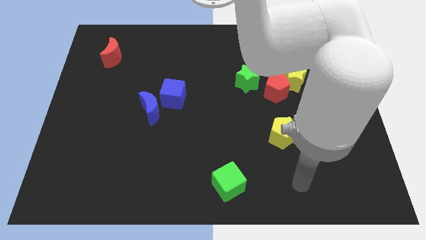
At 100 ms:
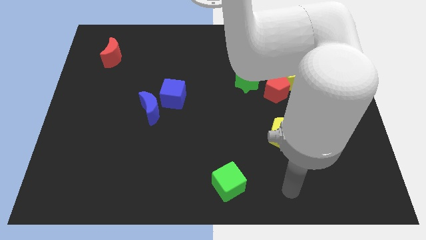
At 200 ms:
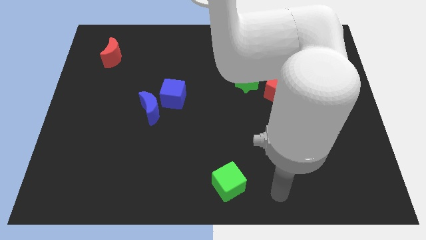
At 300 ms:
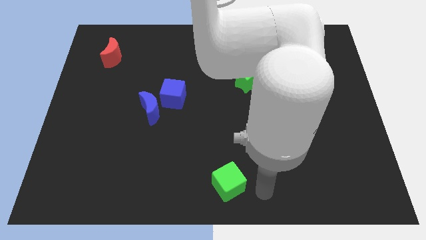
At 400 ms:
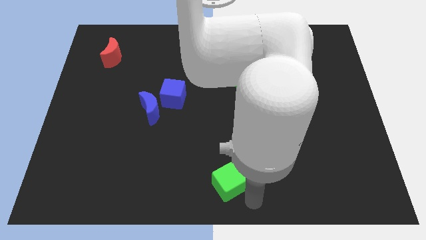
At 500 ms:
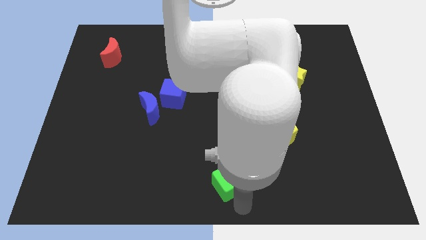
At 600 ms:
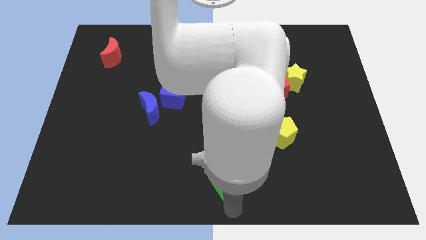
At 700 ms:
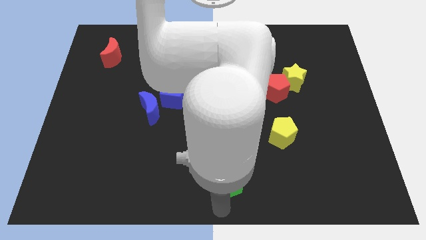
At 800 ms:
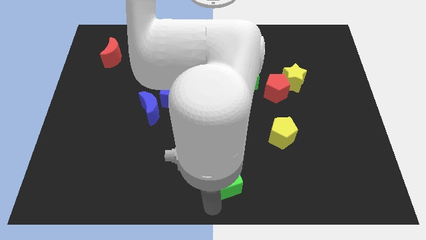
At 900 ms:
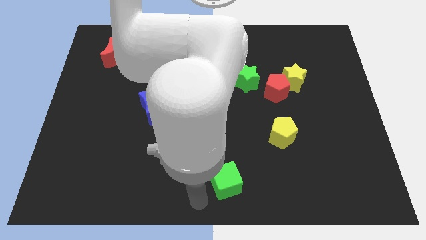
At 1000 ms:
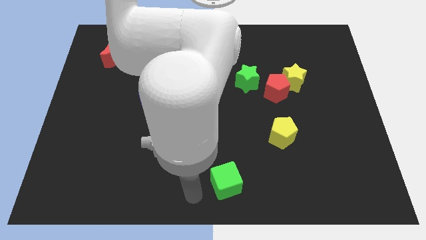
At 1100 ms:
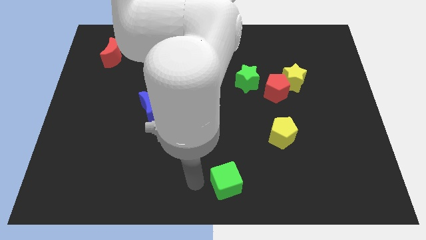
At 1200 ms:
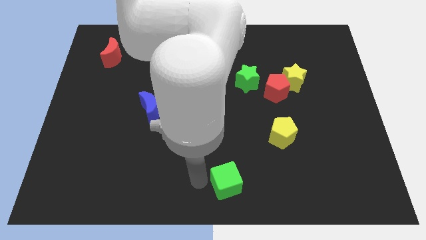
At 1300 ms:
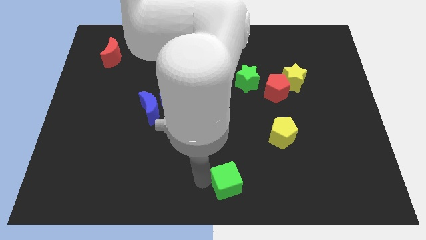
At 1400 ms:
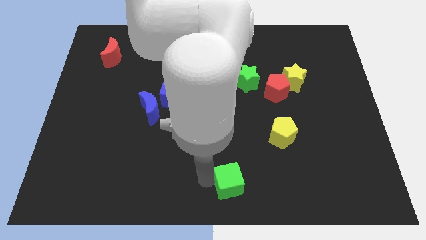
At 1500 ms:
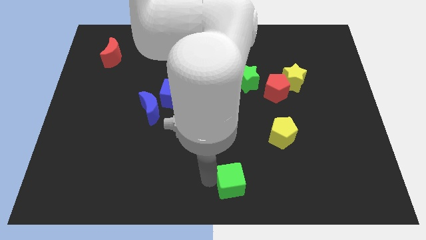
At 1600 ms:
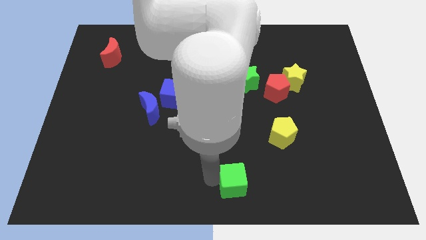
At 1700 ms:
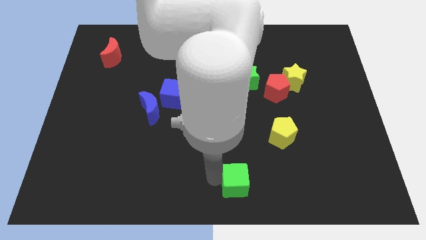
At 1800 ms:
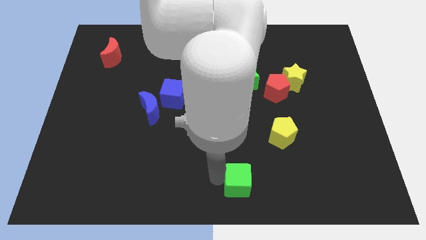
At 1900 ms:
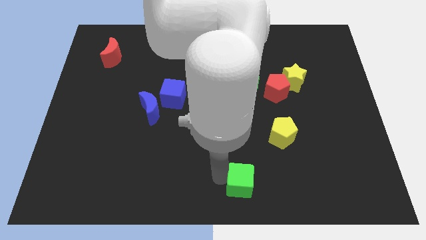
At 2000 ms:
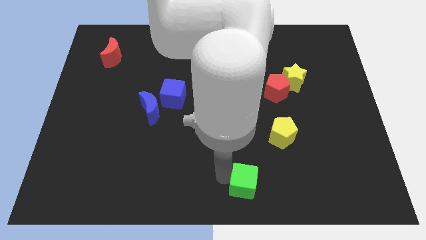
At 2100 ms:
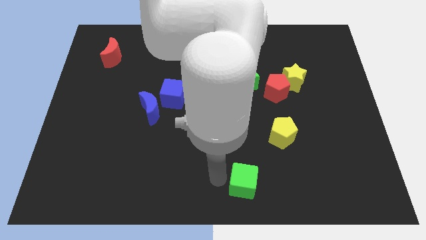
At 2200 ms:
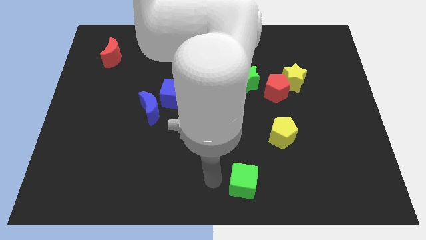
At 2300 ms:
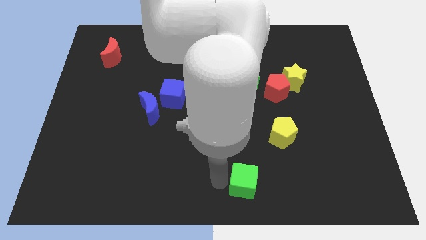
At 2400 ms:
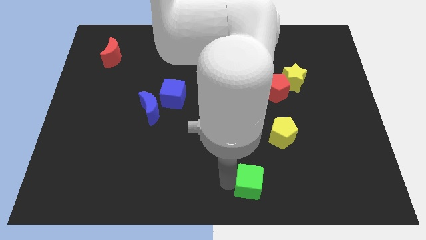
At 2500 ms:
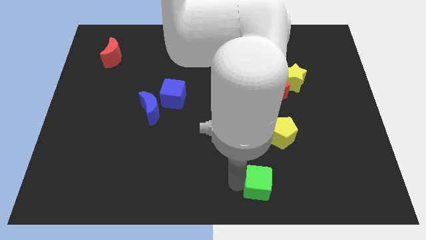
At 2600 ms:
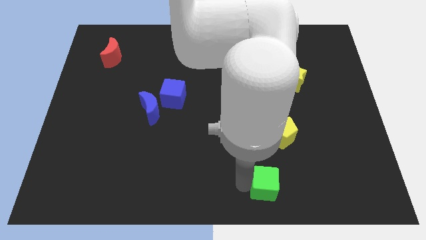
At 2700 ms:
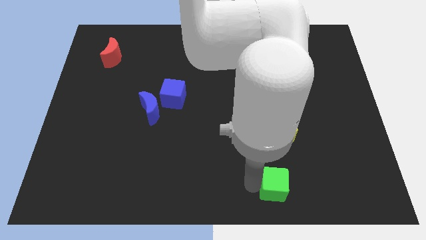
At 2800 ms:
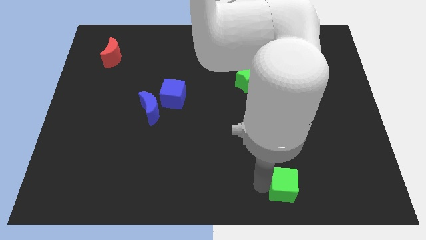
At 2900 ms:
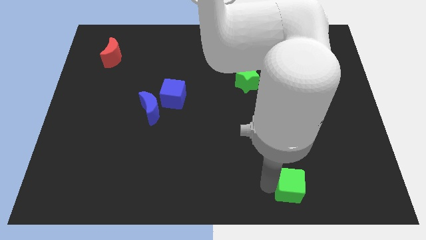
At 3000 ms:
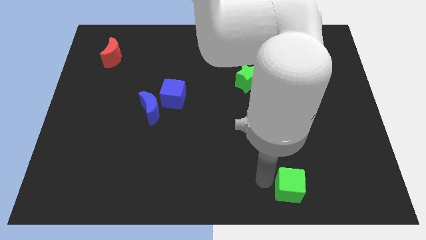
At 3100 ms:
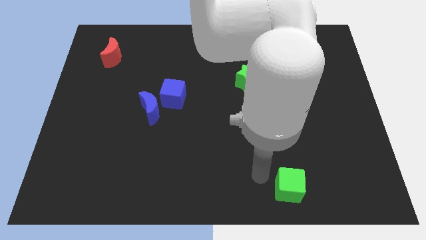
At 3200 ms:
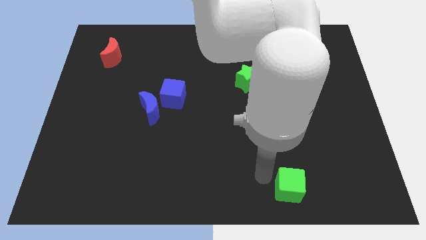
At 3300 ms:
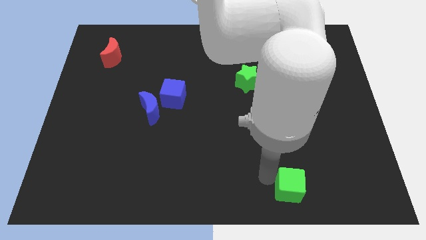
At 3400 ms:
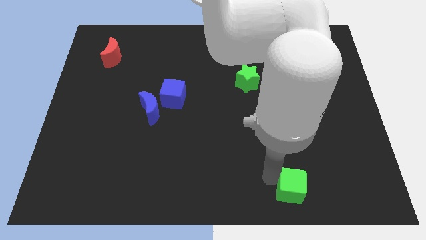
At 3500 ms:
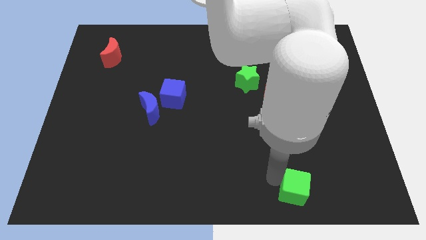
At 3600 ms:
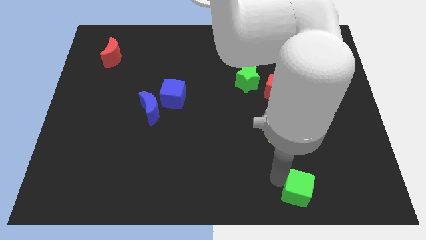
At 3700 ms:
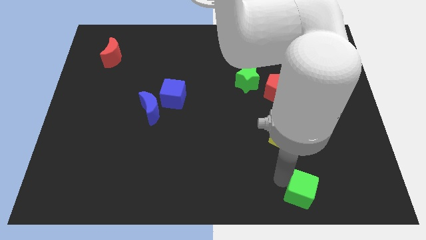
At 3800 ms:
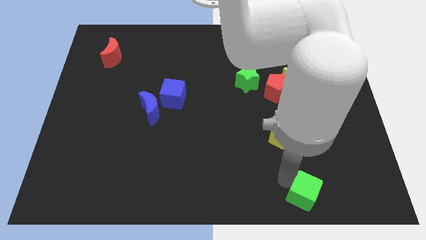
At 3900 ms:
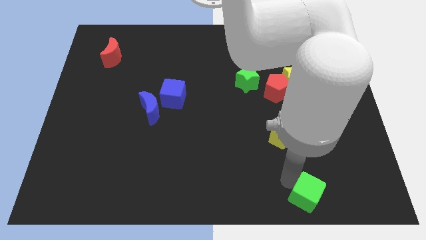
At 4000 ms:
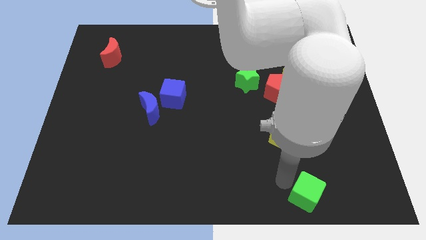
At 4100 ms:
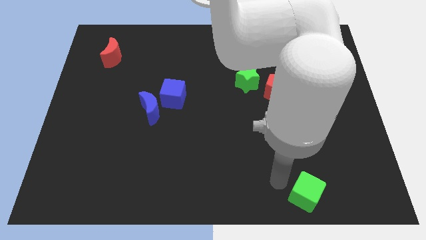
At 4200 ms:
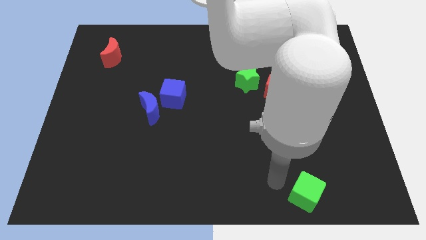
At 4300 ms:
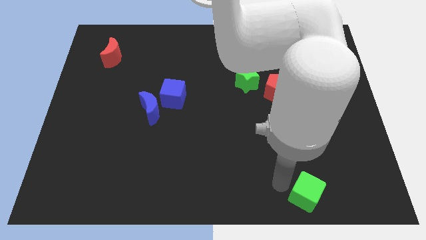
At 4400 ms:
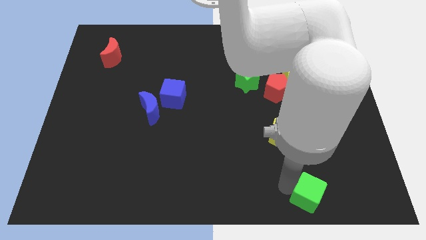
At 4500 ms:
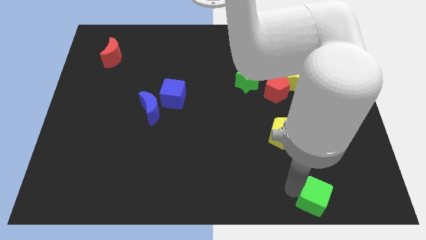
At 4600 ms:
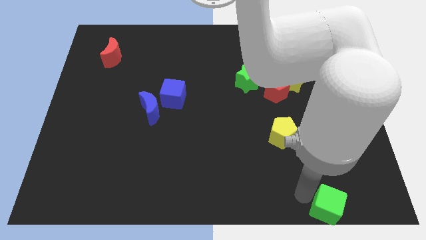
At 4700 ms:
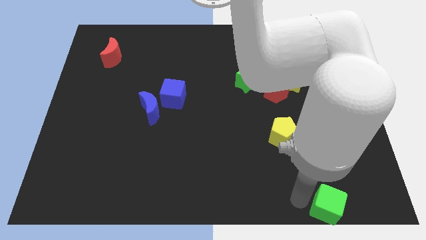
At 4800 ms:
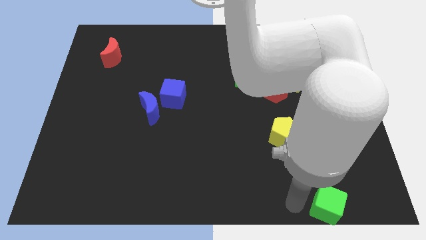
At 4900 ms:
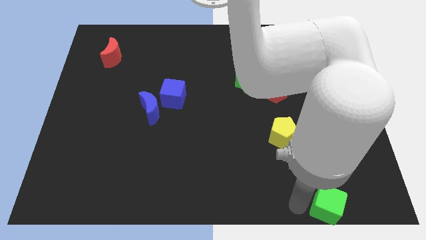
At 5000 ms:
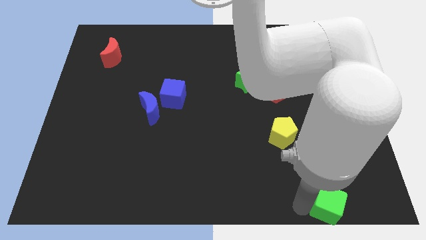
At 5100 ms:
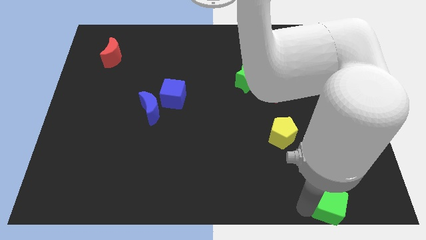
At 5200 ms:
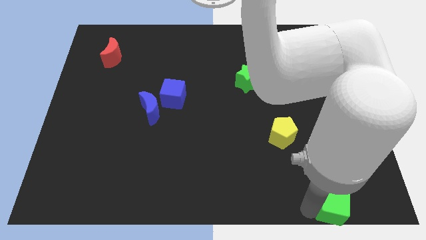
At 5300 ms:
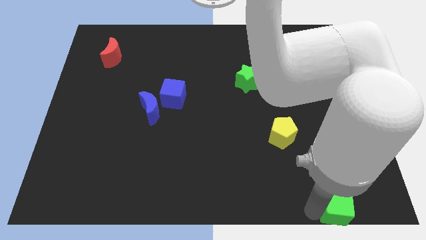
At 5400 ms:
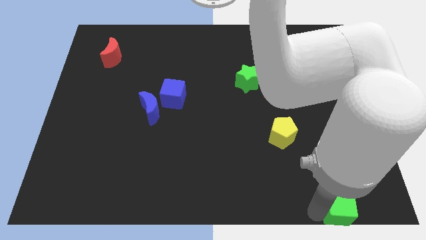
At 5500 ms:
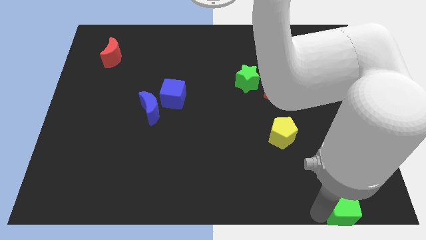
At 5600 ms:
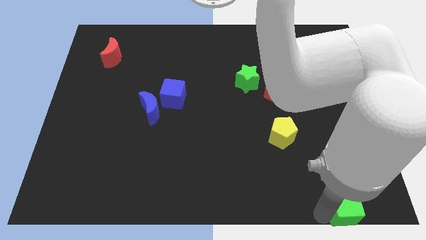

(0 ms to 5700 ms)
slide the green cube to the lower right corner
